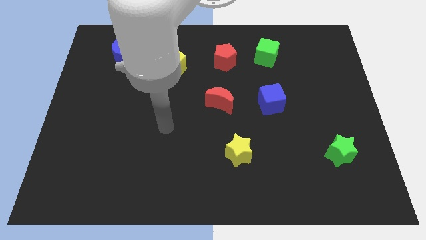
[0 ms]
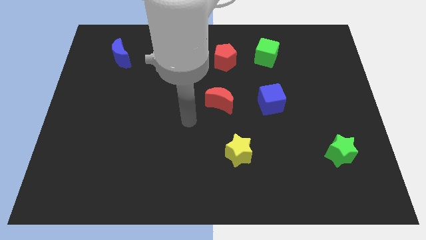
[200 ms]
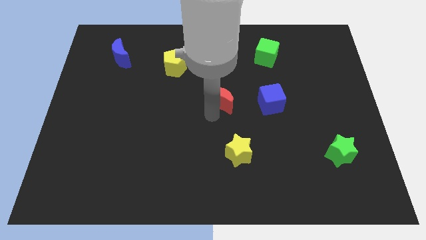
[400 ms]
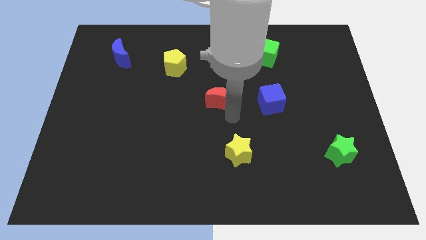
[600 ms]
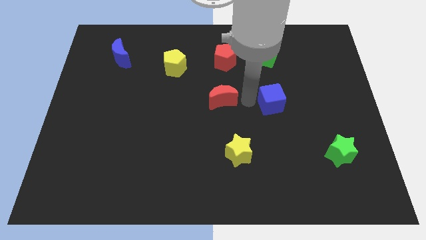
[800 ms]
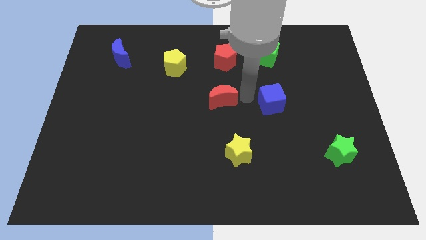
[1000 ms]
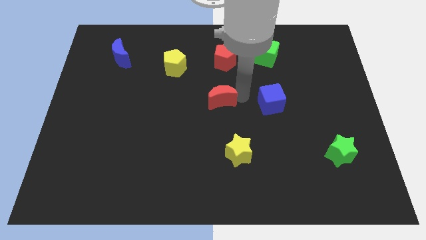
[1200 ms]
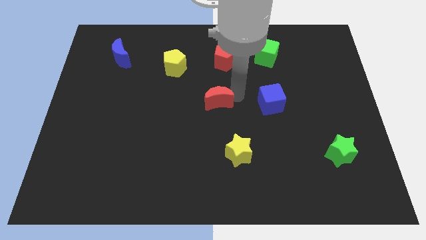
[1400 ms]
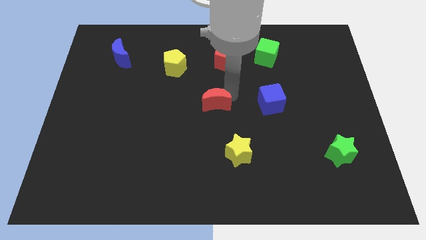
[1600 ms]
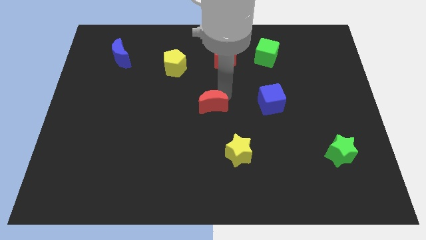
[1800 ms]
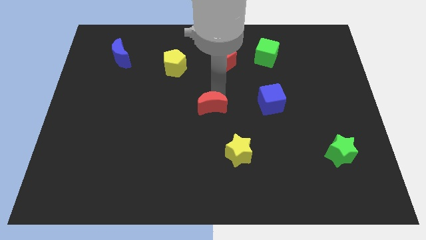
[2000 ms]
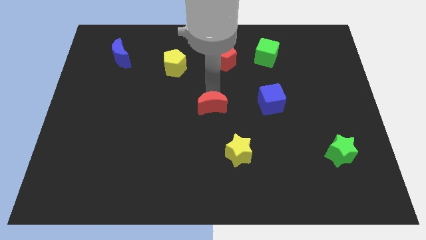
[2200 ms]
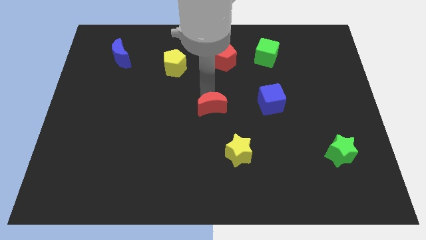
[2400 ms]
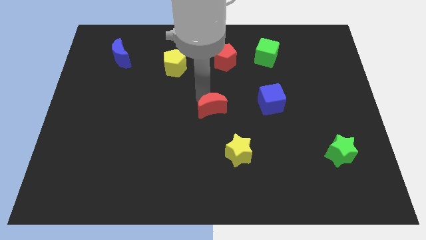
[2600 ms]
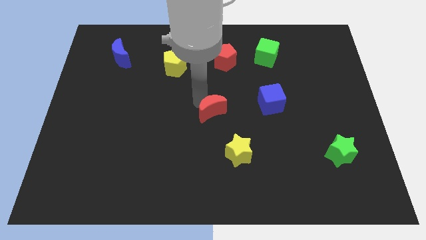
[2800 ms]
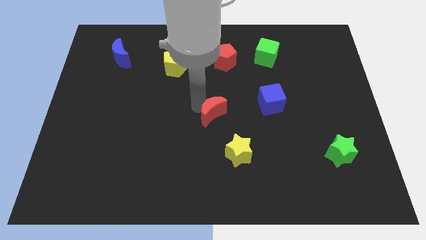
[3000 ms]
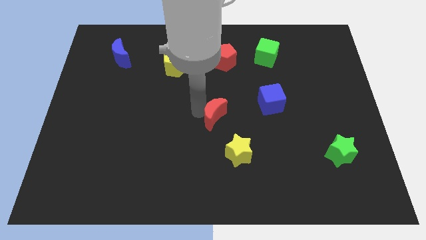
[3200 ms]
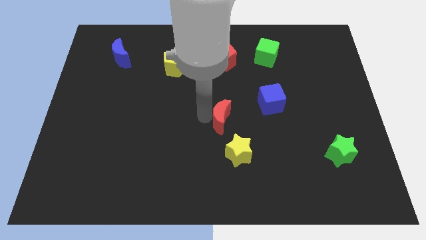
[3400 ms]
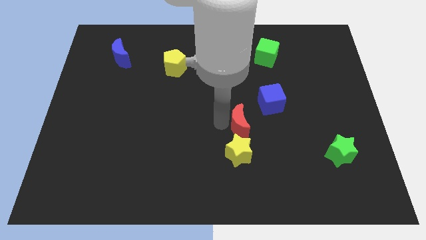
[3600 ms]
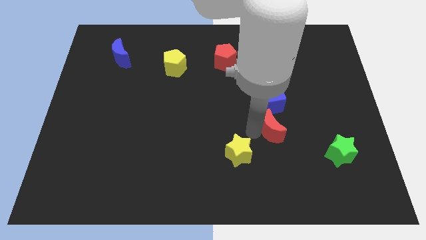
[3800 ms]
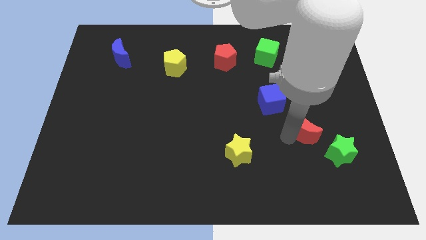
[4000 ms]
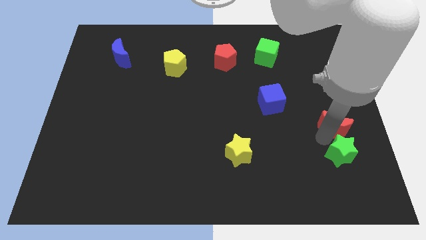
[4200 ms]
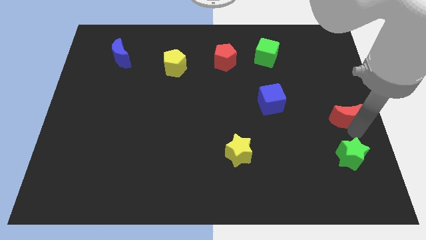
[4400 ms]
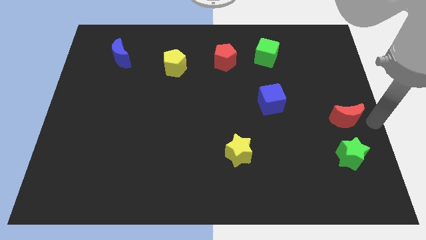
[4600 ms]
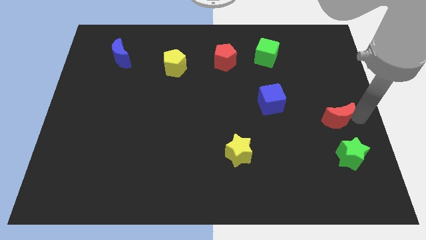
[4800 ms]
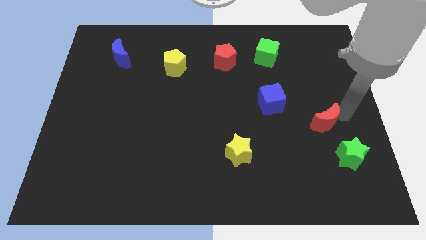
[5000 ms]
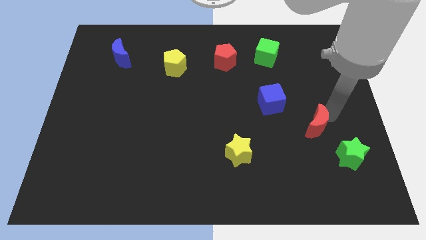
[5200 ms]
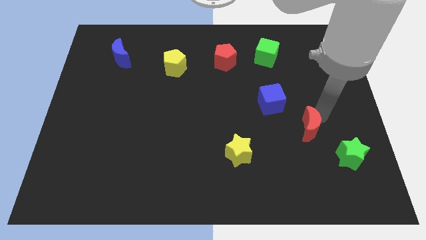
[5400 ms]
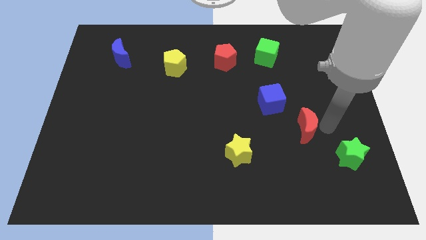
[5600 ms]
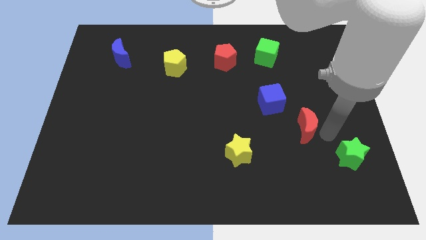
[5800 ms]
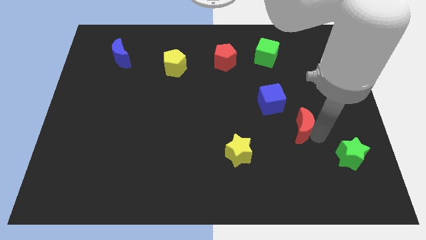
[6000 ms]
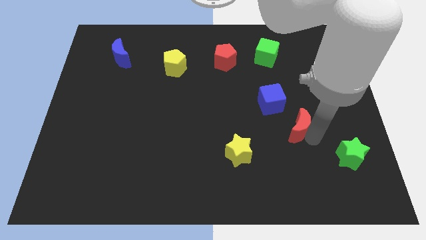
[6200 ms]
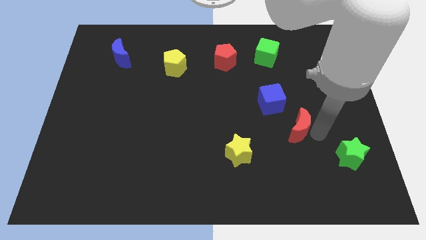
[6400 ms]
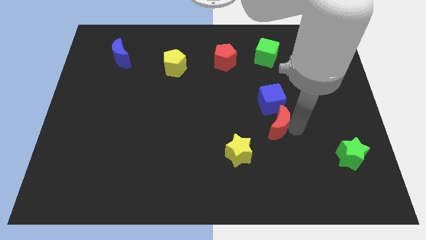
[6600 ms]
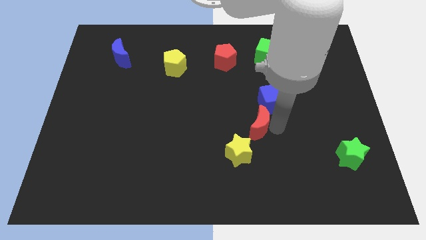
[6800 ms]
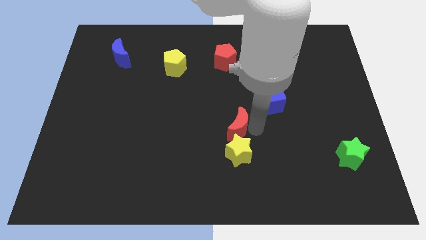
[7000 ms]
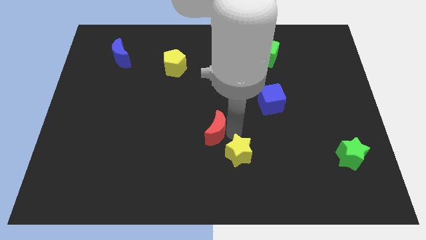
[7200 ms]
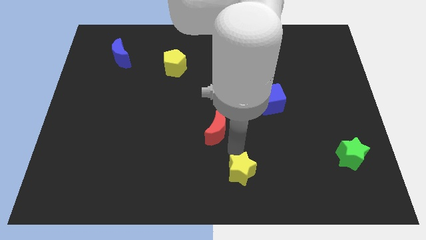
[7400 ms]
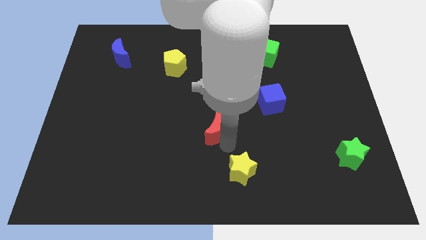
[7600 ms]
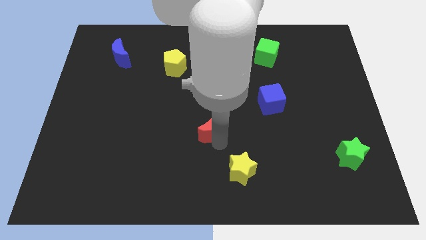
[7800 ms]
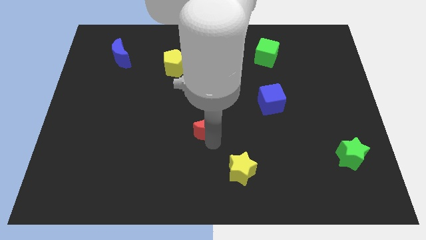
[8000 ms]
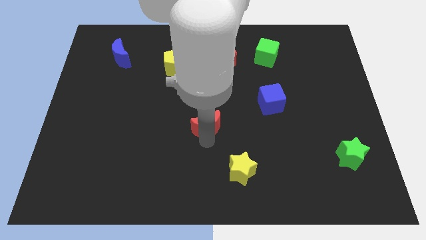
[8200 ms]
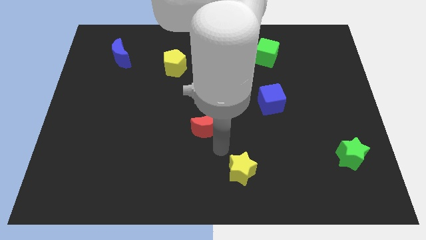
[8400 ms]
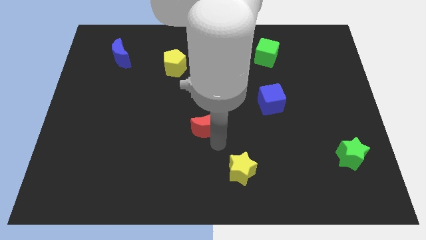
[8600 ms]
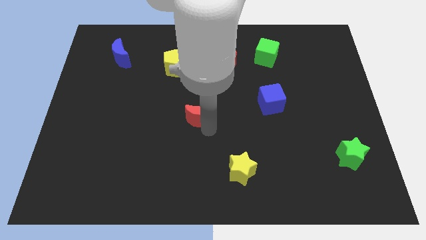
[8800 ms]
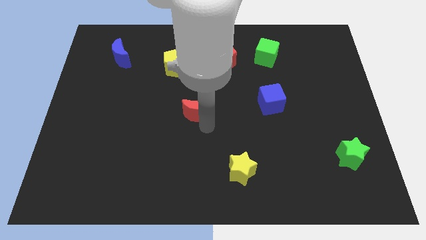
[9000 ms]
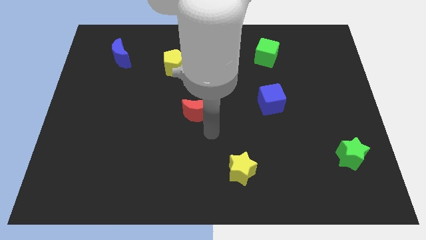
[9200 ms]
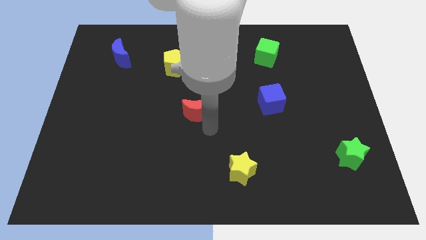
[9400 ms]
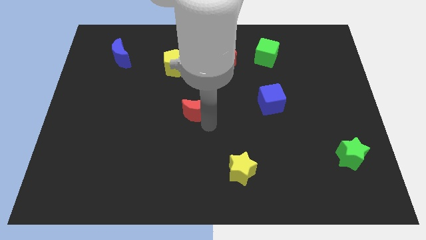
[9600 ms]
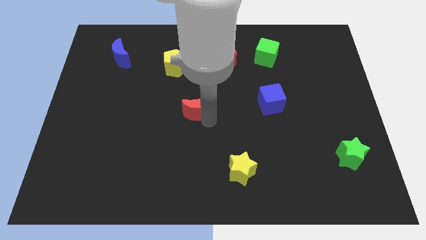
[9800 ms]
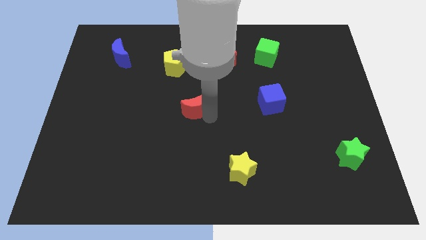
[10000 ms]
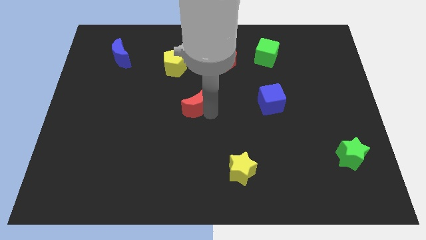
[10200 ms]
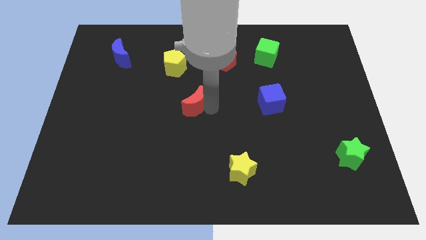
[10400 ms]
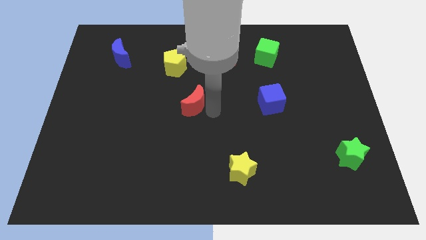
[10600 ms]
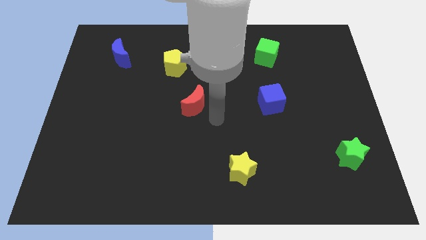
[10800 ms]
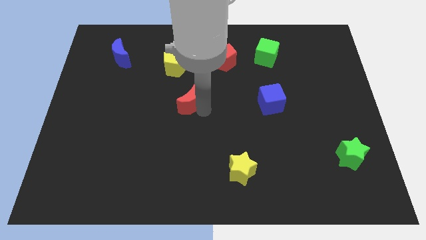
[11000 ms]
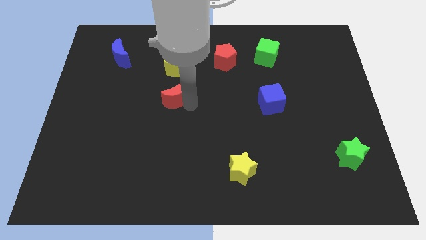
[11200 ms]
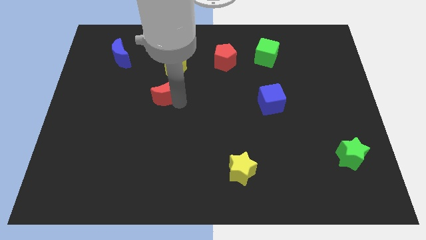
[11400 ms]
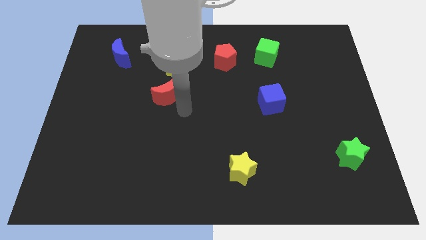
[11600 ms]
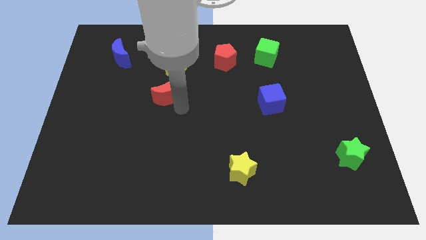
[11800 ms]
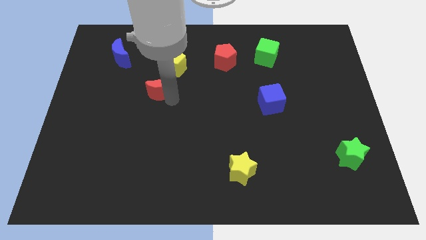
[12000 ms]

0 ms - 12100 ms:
move the red moon to the bottom left of the yellow pentagon
